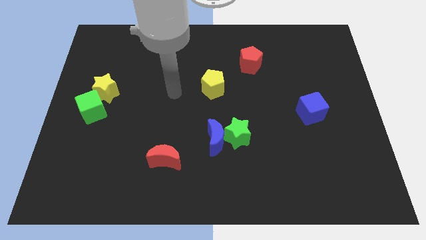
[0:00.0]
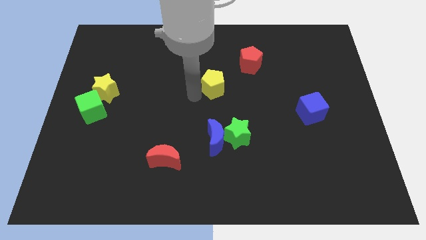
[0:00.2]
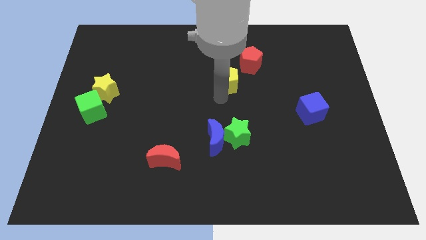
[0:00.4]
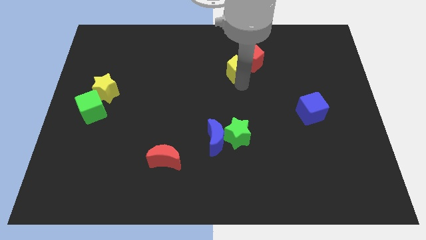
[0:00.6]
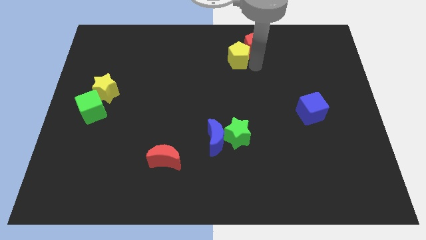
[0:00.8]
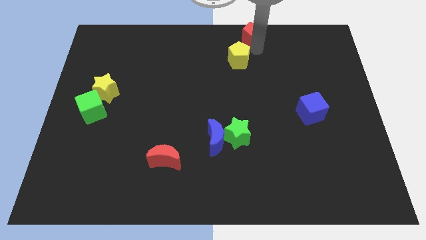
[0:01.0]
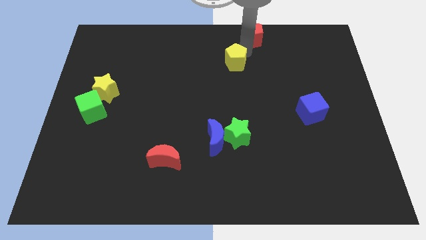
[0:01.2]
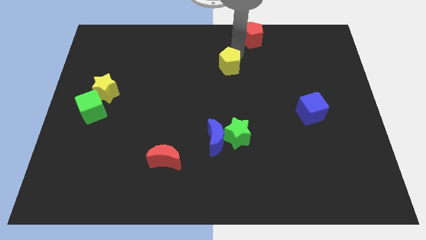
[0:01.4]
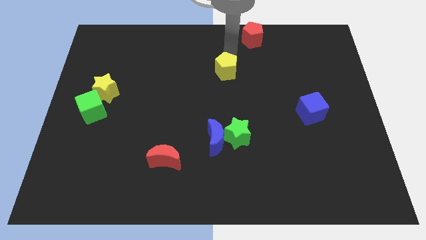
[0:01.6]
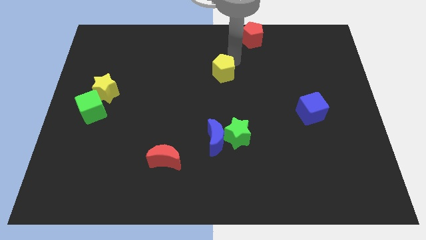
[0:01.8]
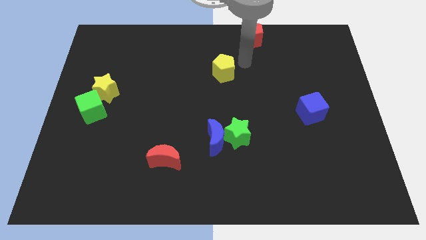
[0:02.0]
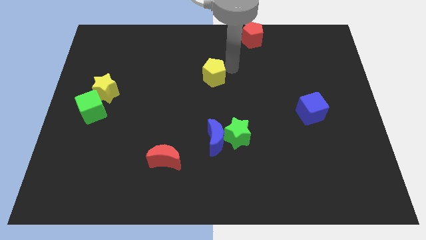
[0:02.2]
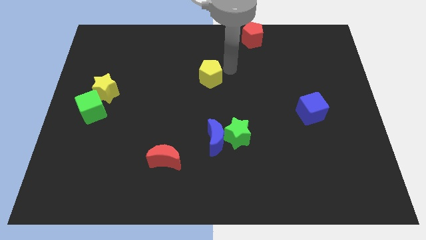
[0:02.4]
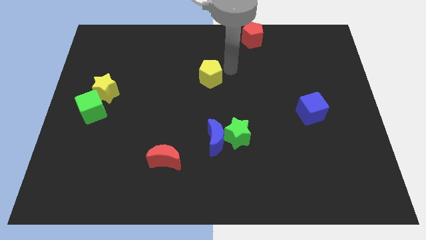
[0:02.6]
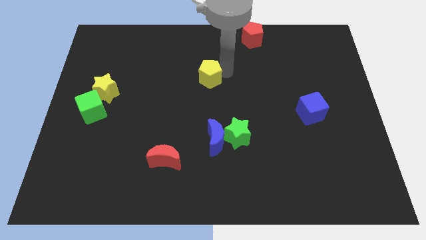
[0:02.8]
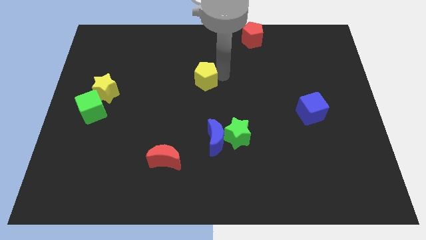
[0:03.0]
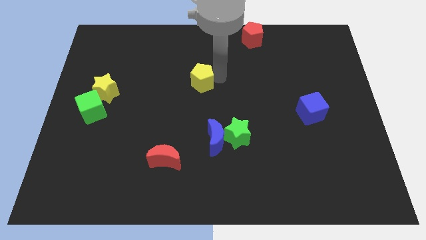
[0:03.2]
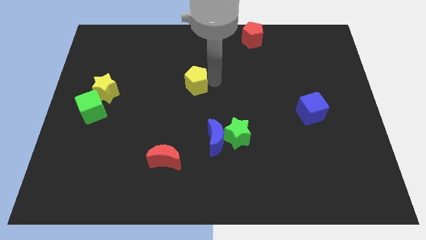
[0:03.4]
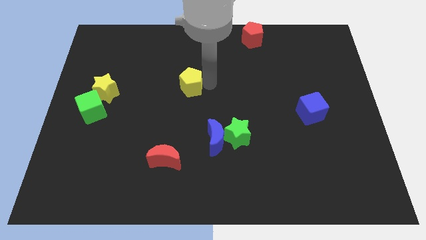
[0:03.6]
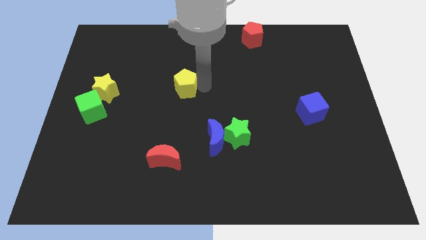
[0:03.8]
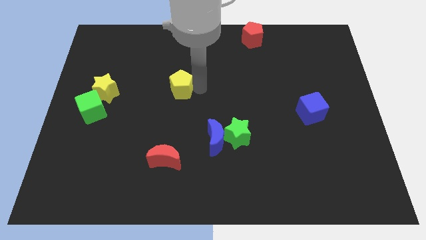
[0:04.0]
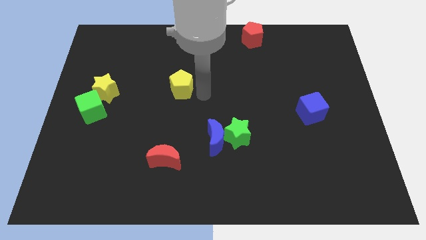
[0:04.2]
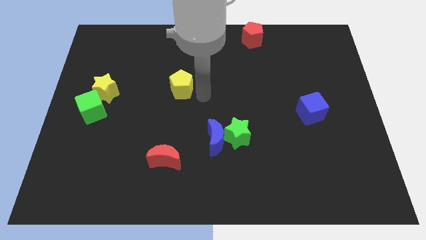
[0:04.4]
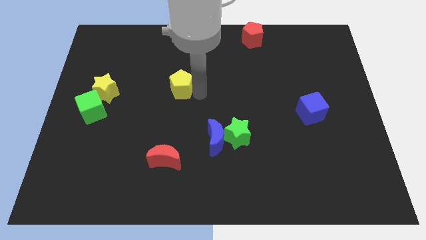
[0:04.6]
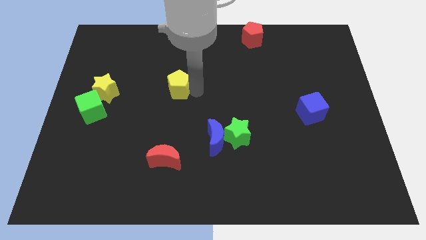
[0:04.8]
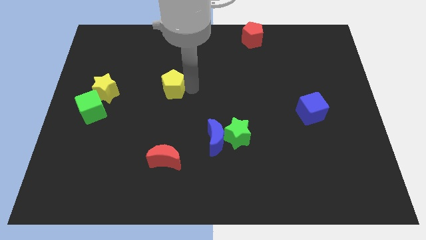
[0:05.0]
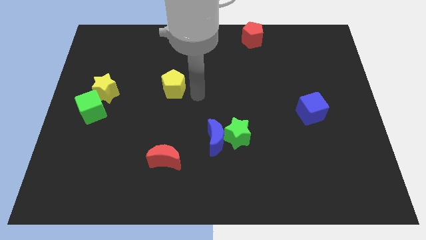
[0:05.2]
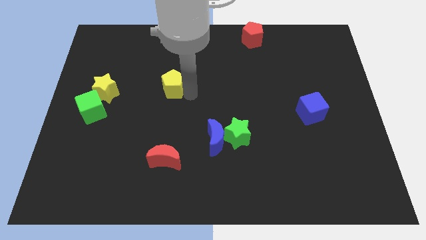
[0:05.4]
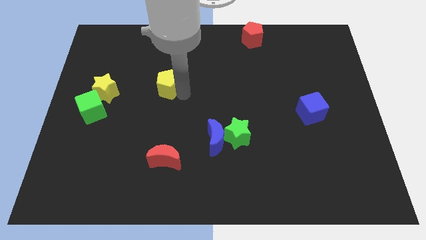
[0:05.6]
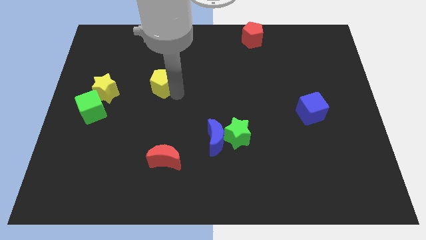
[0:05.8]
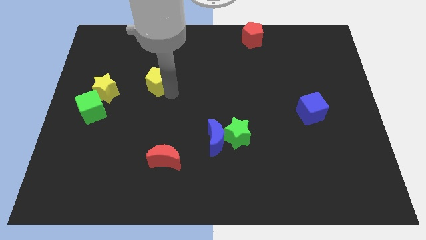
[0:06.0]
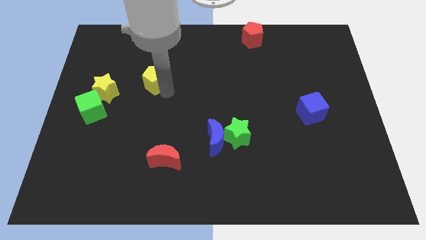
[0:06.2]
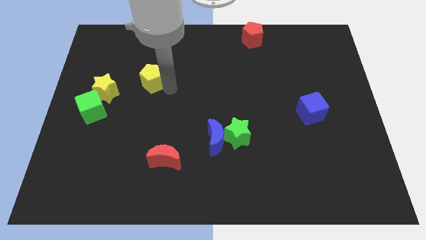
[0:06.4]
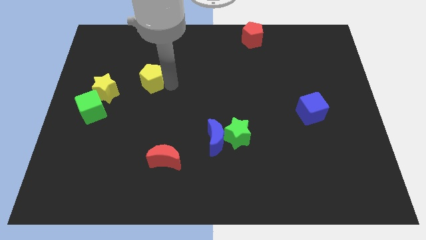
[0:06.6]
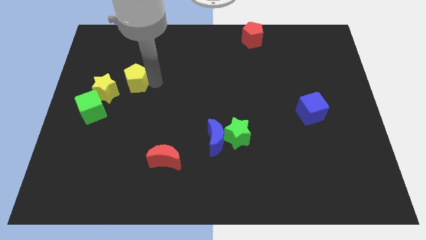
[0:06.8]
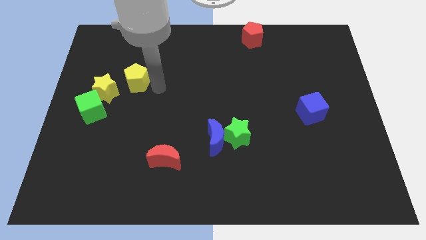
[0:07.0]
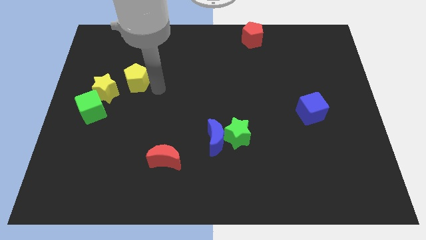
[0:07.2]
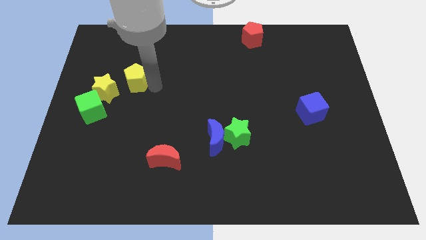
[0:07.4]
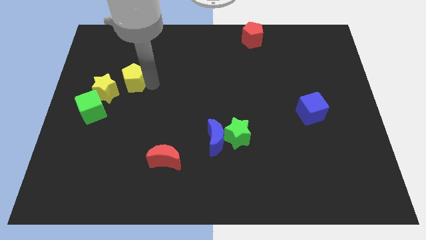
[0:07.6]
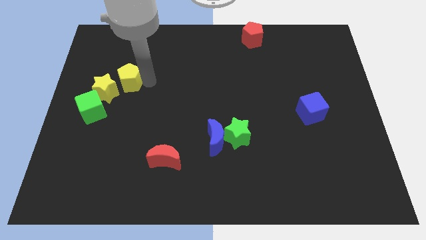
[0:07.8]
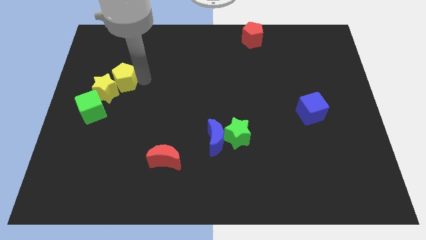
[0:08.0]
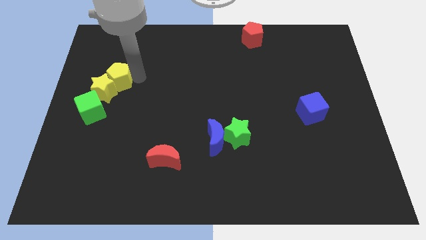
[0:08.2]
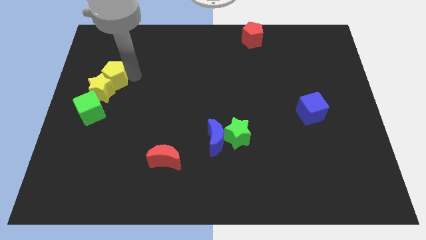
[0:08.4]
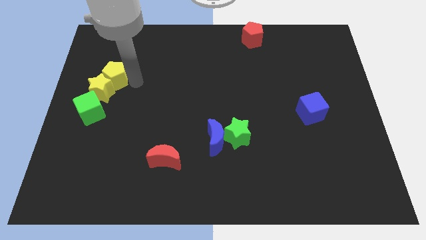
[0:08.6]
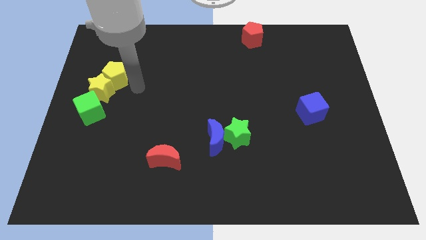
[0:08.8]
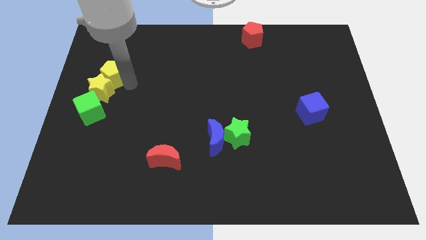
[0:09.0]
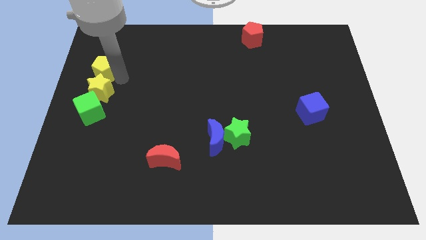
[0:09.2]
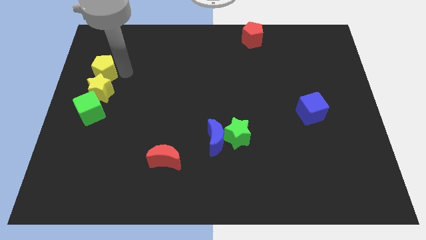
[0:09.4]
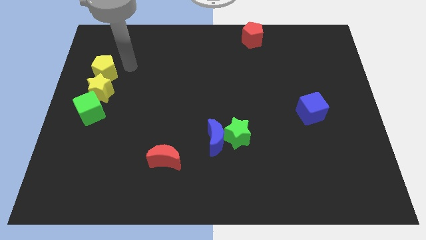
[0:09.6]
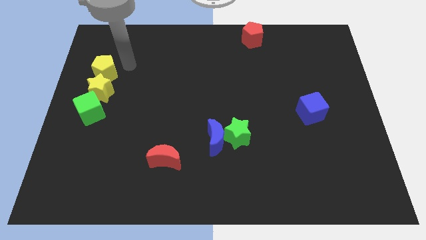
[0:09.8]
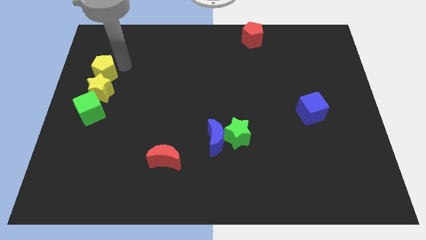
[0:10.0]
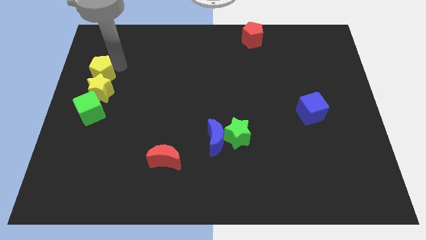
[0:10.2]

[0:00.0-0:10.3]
put the yellow pentagon to the center left

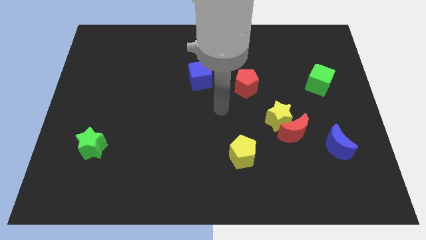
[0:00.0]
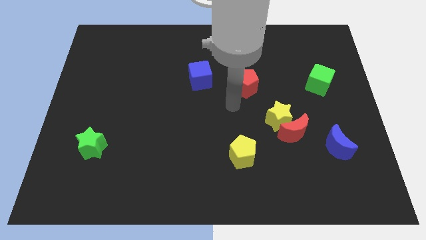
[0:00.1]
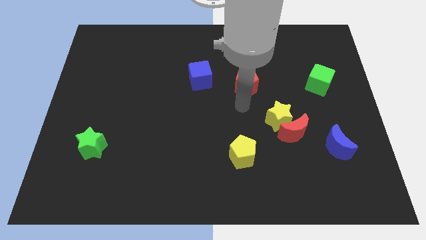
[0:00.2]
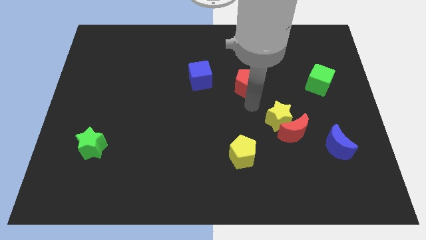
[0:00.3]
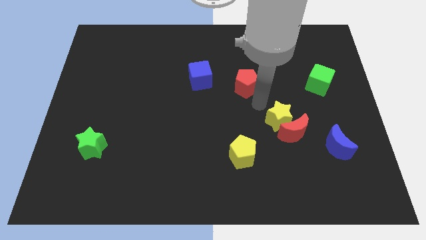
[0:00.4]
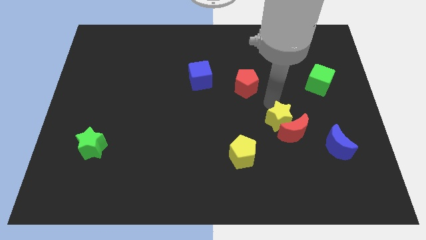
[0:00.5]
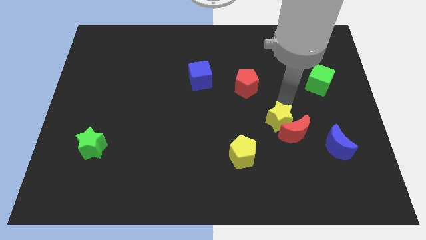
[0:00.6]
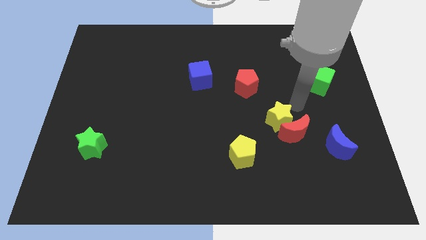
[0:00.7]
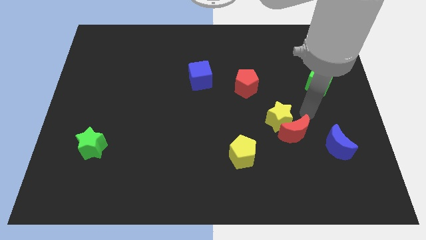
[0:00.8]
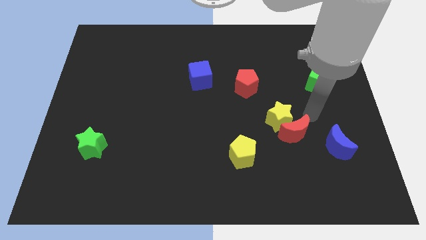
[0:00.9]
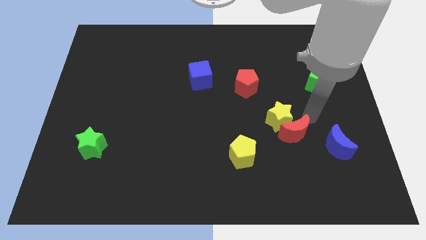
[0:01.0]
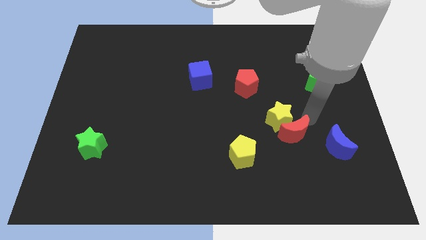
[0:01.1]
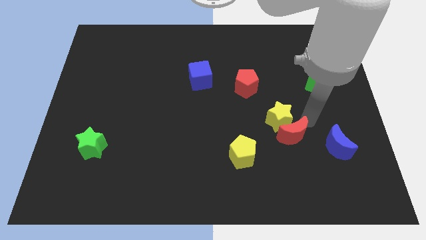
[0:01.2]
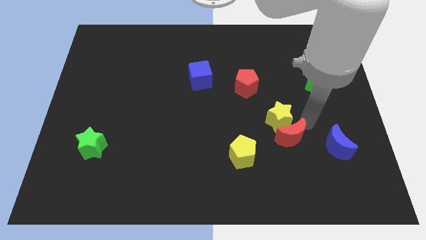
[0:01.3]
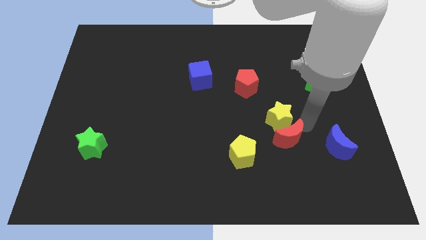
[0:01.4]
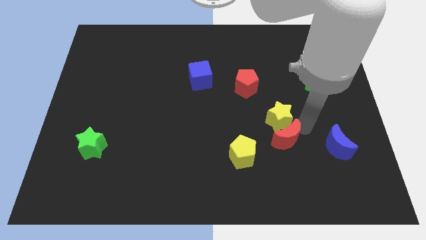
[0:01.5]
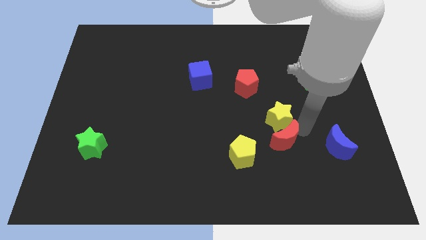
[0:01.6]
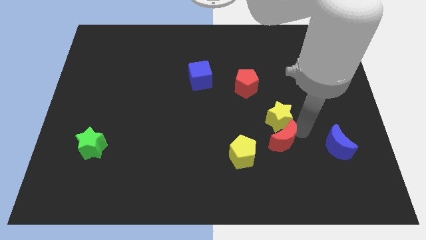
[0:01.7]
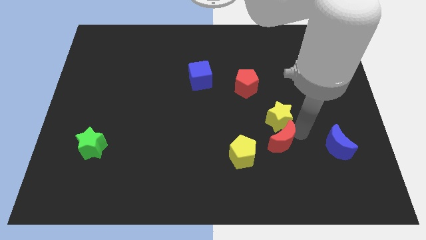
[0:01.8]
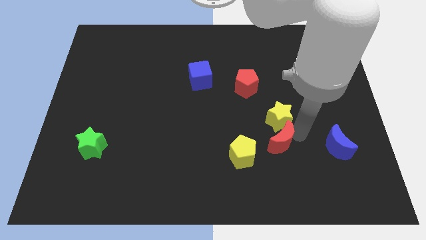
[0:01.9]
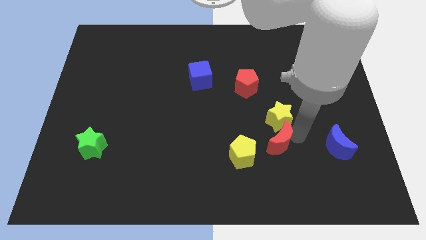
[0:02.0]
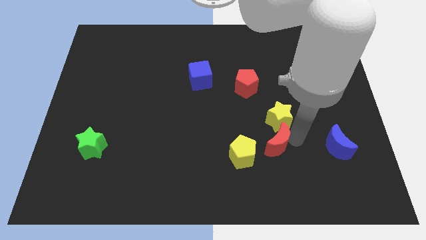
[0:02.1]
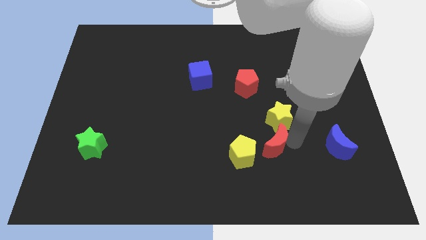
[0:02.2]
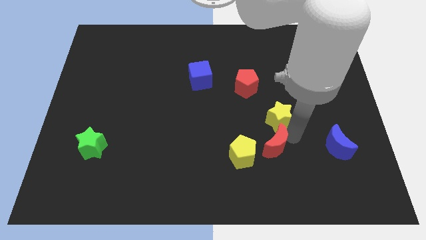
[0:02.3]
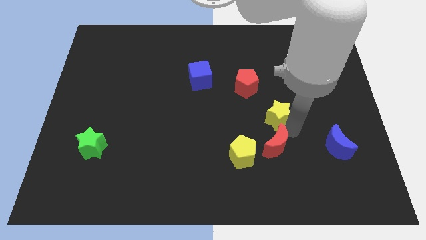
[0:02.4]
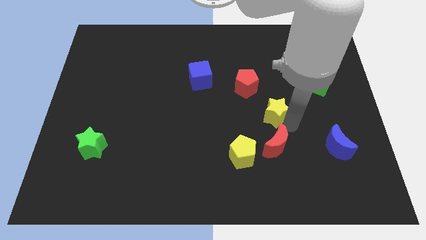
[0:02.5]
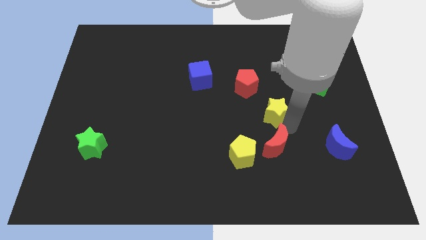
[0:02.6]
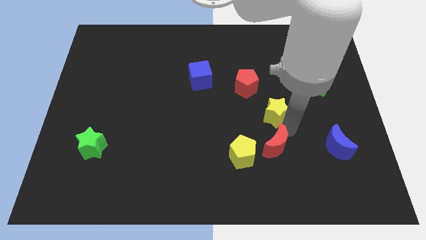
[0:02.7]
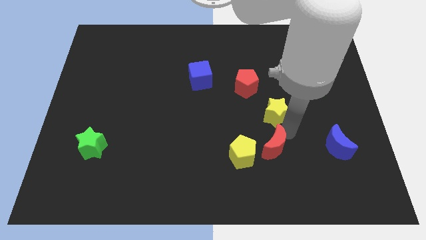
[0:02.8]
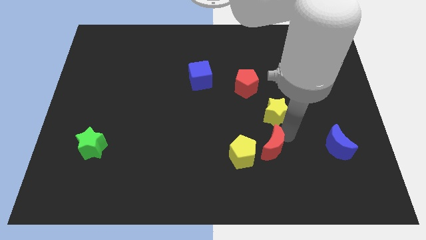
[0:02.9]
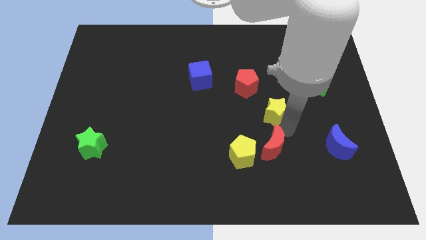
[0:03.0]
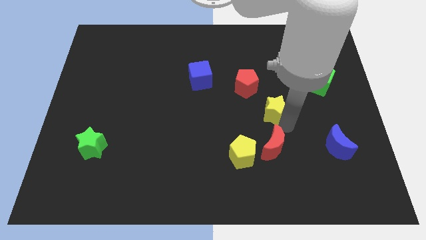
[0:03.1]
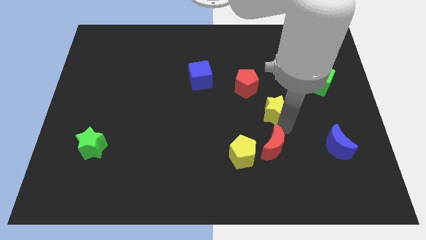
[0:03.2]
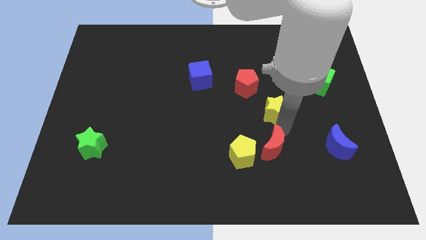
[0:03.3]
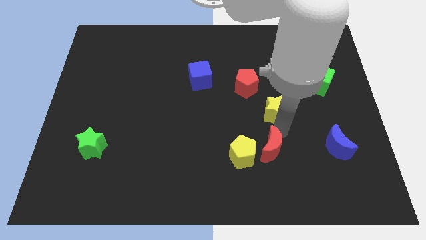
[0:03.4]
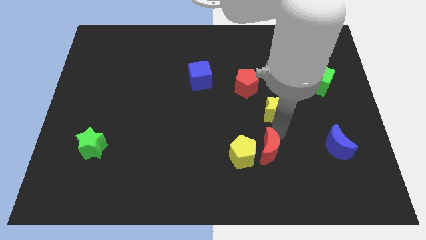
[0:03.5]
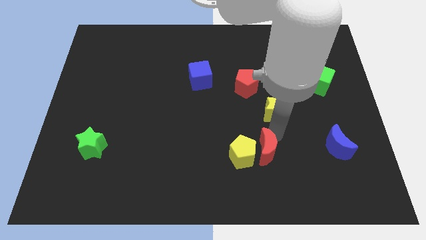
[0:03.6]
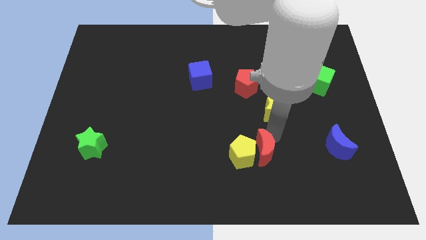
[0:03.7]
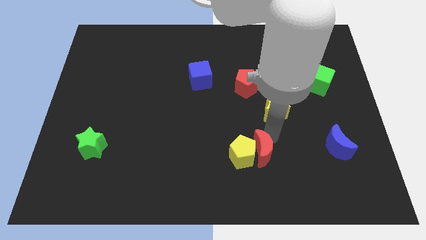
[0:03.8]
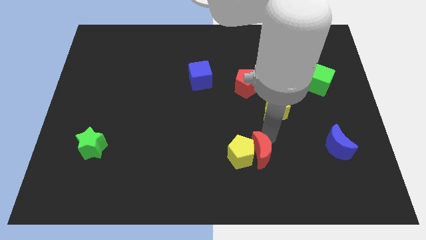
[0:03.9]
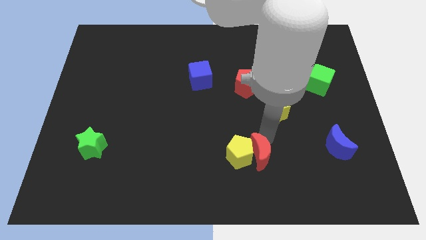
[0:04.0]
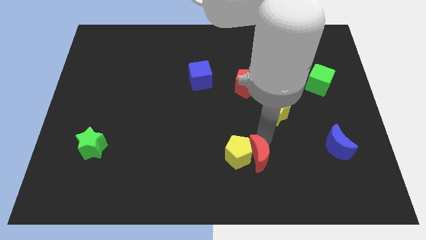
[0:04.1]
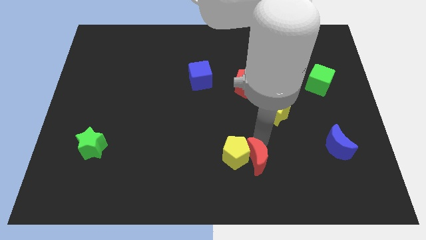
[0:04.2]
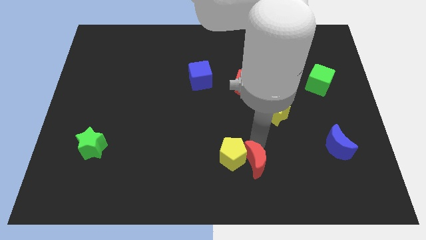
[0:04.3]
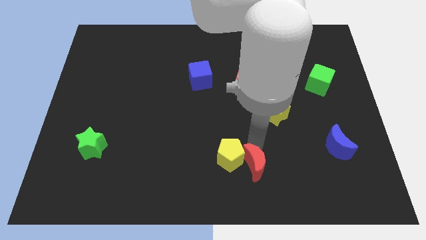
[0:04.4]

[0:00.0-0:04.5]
push the red moon to the bottom side
